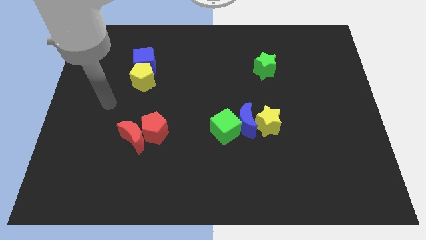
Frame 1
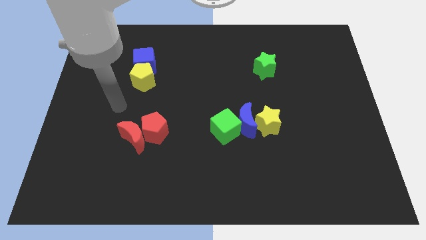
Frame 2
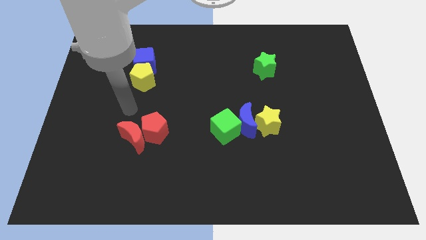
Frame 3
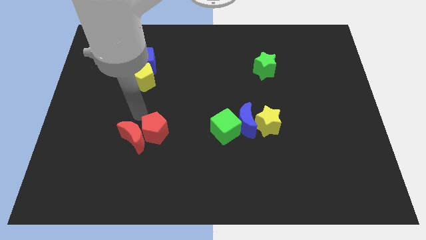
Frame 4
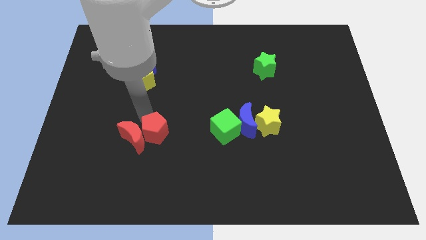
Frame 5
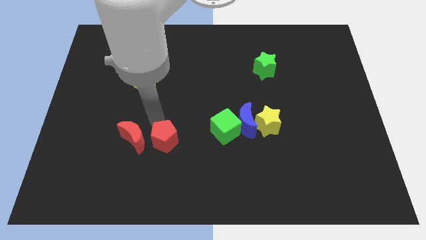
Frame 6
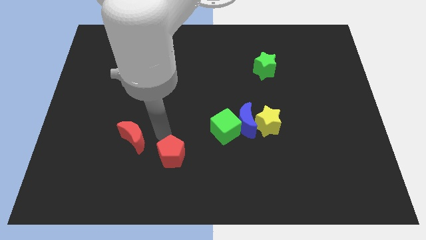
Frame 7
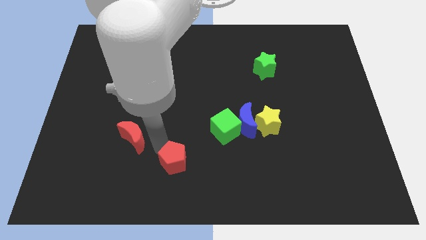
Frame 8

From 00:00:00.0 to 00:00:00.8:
pull the red moon apart from the red pentagon

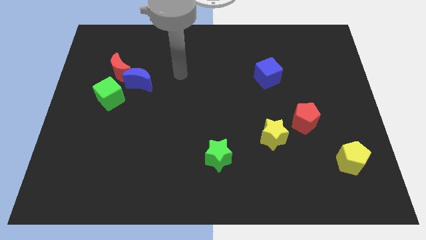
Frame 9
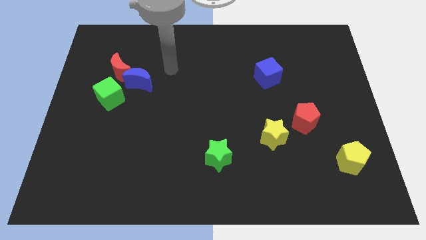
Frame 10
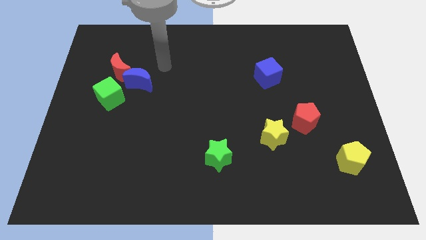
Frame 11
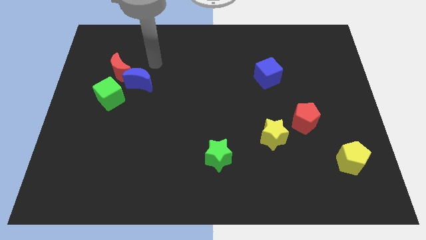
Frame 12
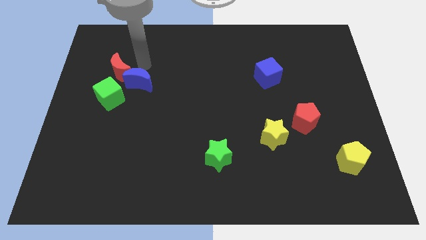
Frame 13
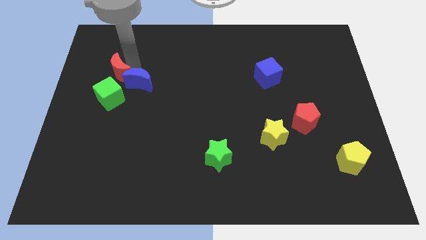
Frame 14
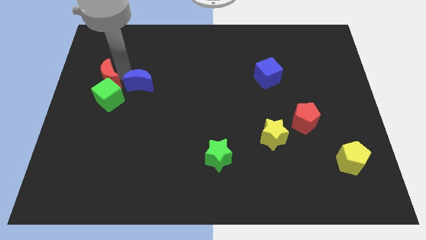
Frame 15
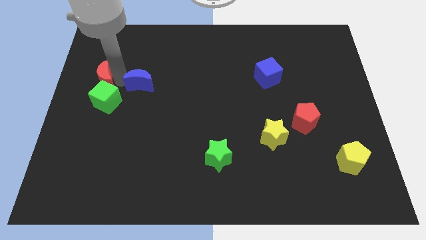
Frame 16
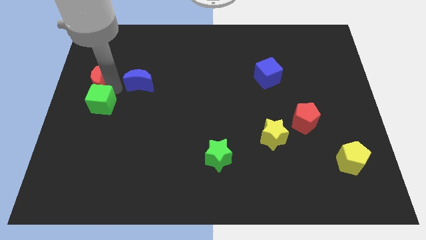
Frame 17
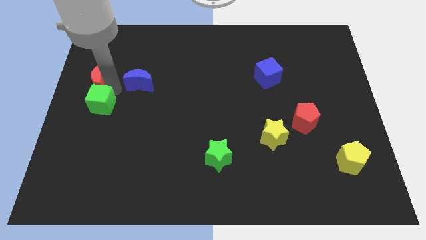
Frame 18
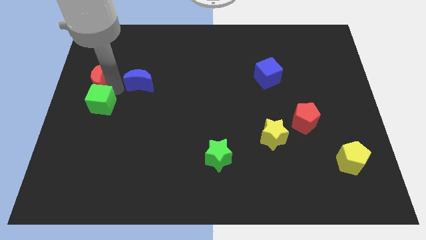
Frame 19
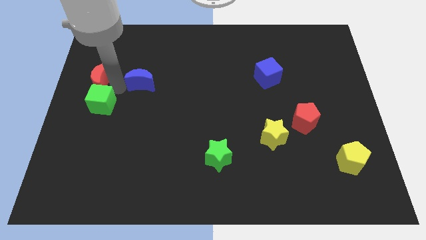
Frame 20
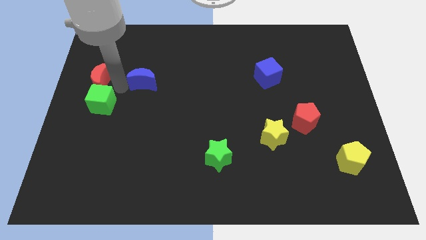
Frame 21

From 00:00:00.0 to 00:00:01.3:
move the blue moon away from the red moon and green cube

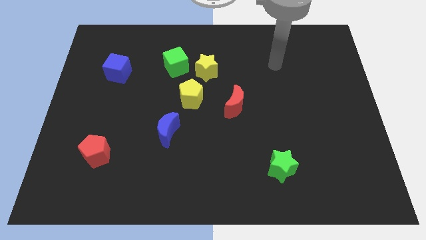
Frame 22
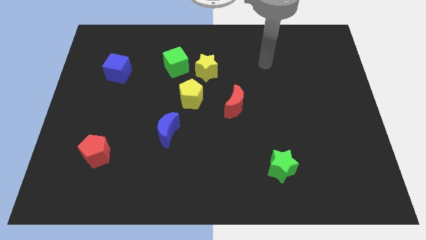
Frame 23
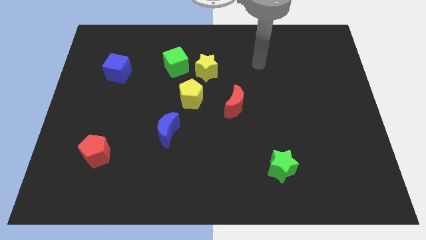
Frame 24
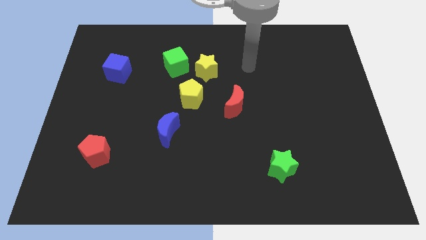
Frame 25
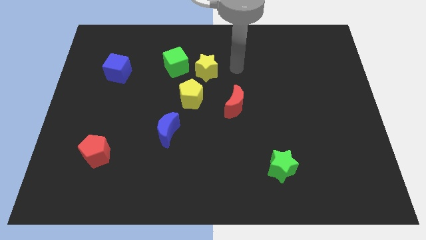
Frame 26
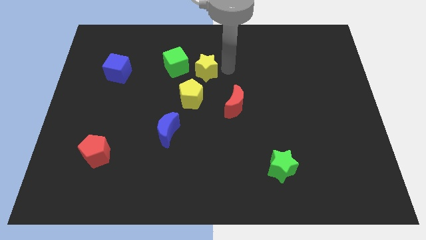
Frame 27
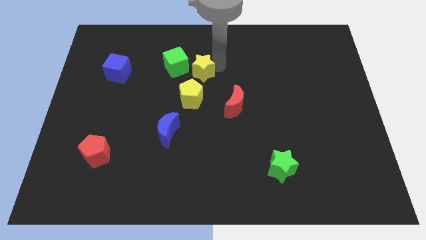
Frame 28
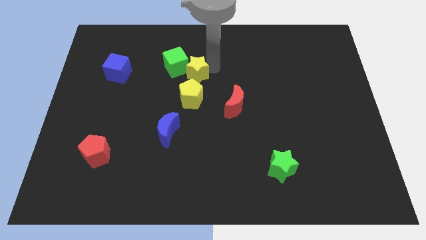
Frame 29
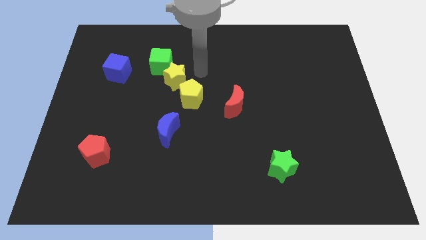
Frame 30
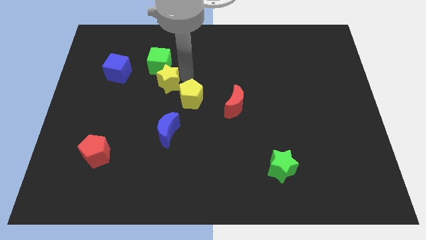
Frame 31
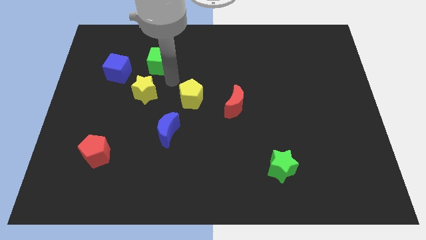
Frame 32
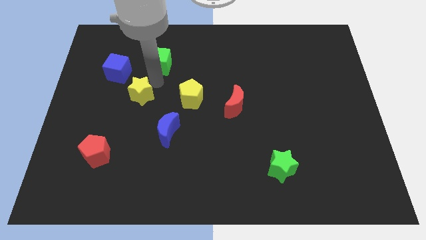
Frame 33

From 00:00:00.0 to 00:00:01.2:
separate the green cube from the yellow star

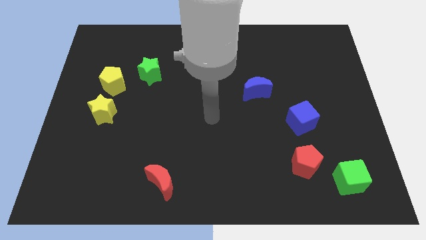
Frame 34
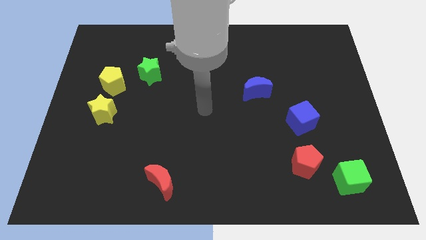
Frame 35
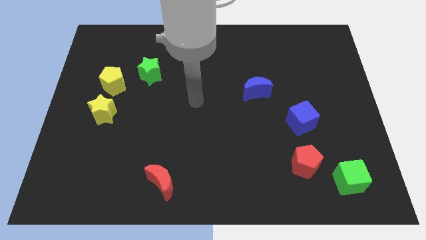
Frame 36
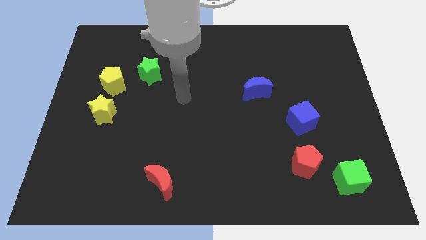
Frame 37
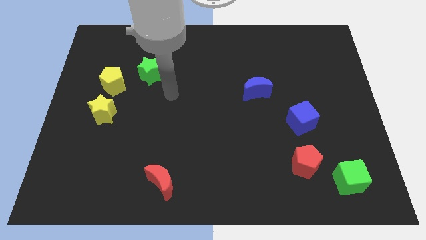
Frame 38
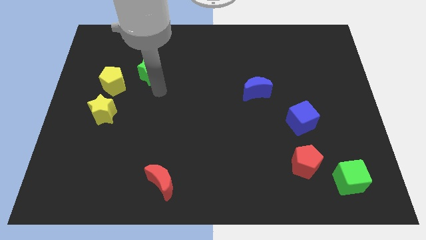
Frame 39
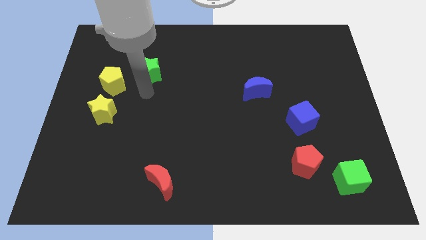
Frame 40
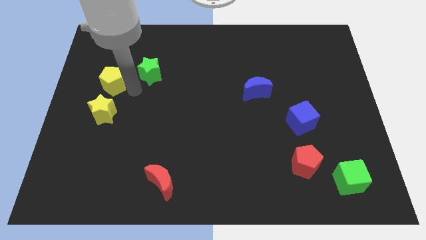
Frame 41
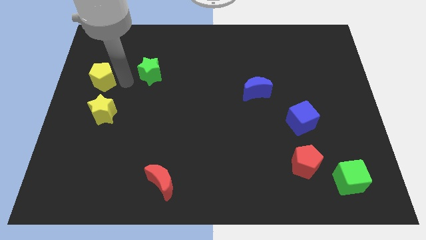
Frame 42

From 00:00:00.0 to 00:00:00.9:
move the green star away from the yellow pentagon

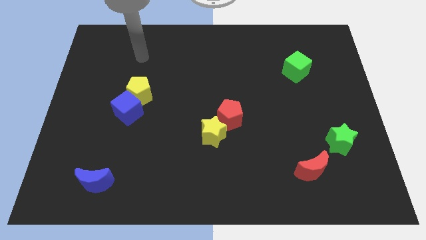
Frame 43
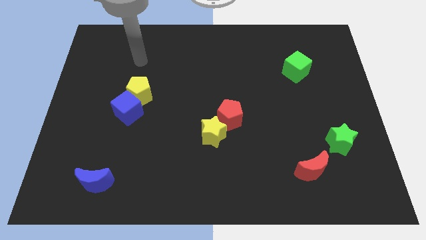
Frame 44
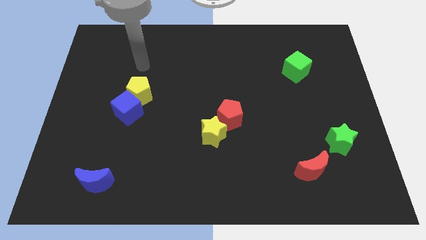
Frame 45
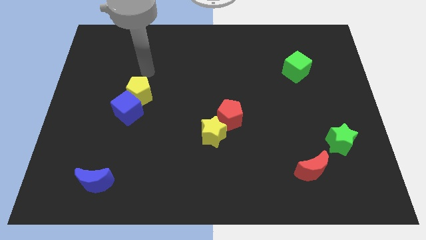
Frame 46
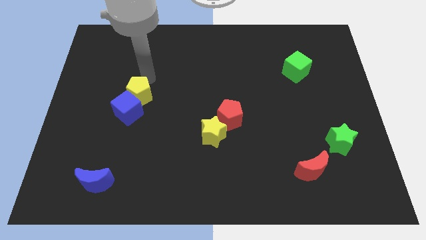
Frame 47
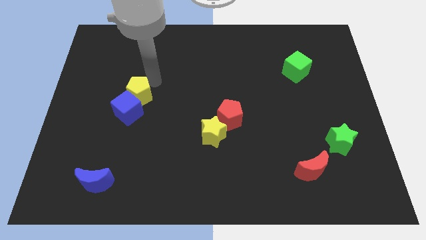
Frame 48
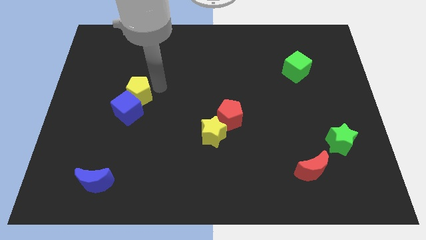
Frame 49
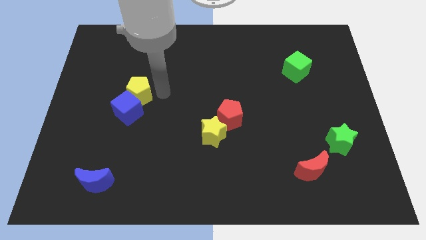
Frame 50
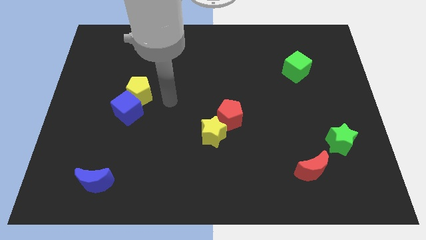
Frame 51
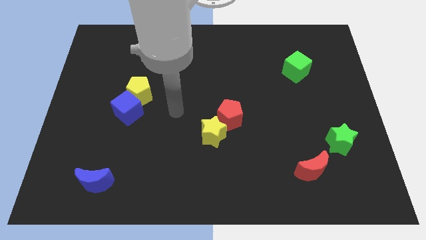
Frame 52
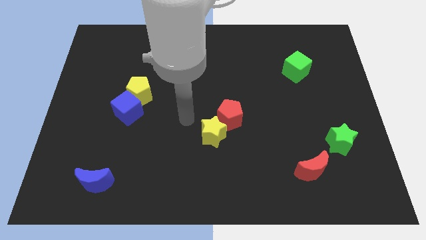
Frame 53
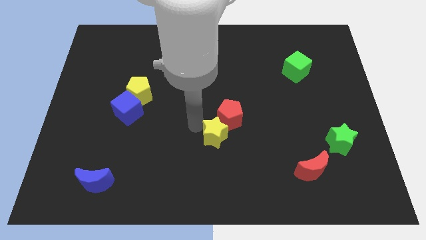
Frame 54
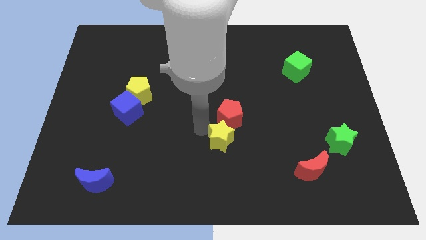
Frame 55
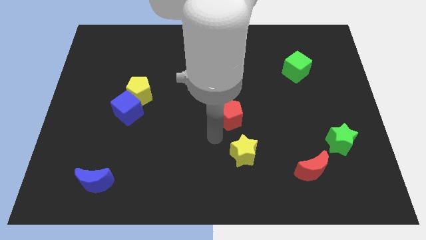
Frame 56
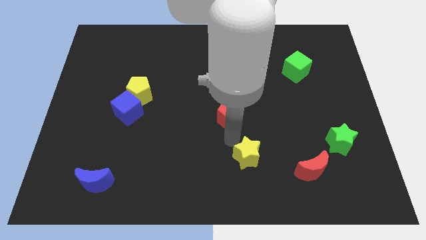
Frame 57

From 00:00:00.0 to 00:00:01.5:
move the red pentagon away from the yellow star

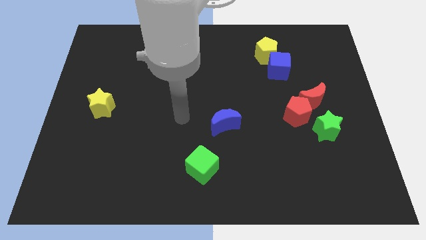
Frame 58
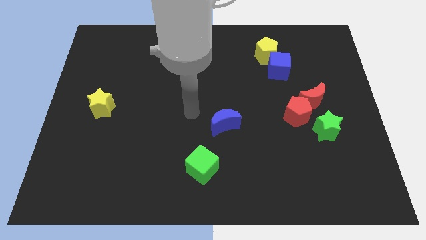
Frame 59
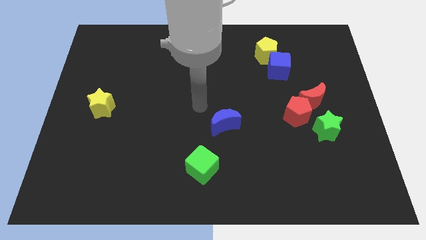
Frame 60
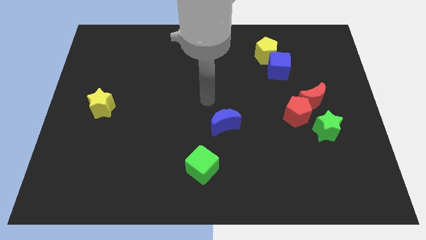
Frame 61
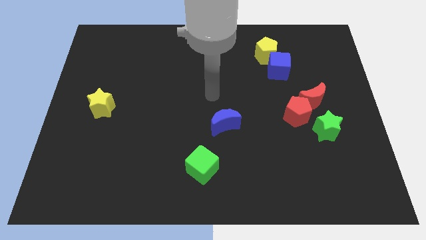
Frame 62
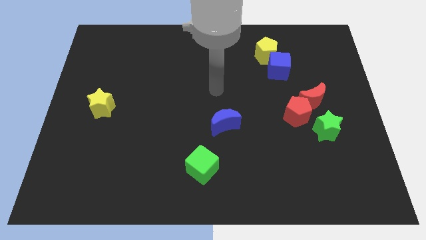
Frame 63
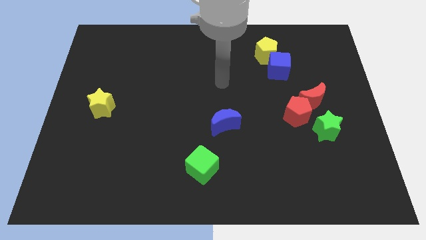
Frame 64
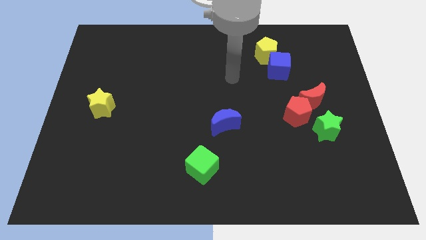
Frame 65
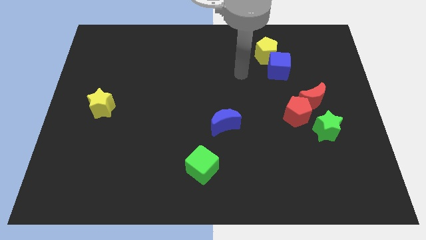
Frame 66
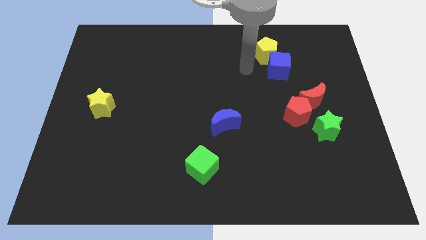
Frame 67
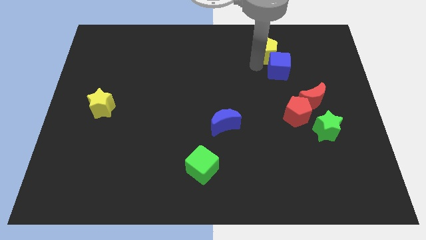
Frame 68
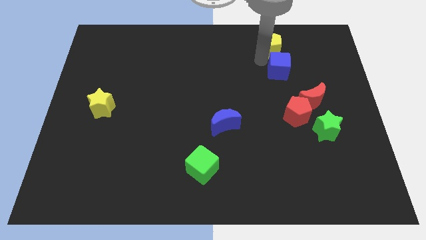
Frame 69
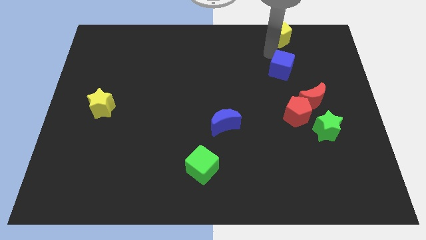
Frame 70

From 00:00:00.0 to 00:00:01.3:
separate the blue cube from the yellow pentagon

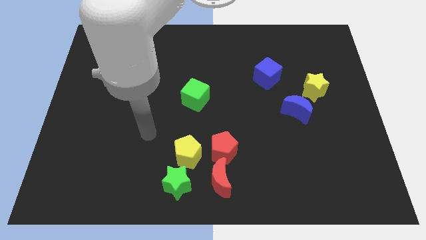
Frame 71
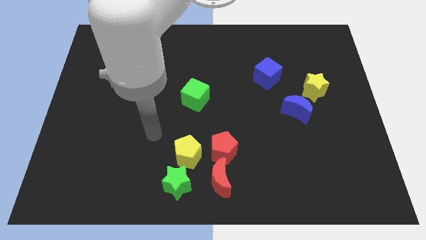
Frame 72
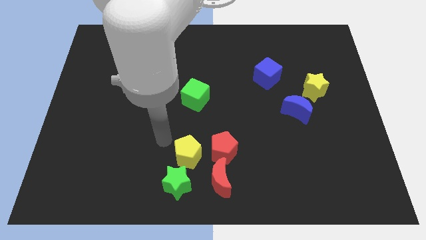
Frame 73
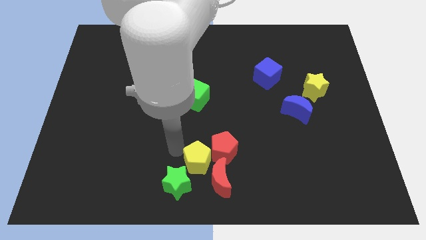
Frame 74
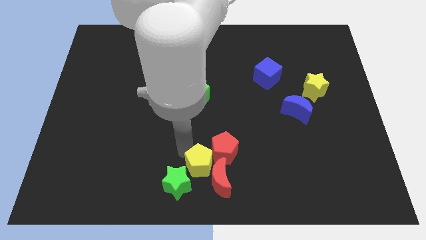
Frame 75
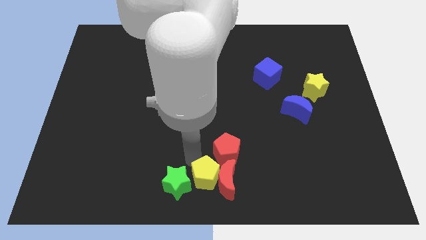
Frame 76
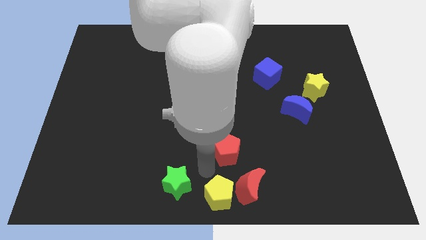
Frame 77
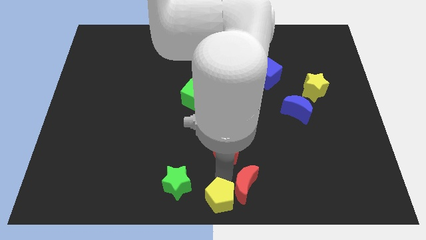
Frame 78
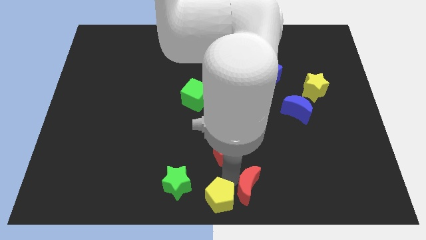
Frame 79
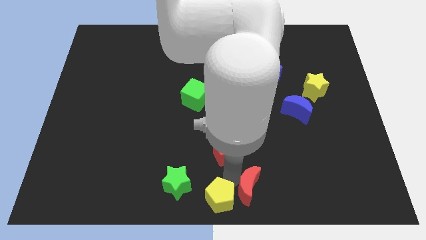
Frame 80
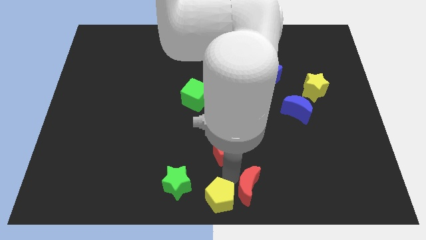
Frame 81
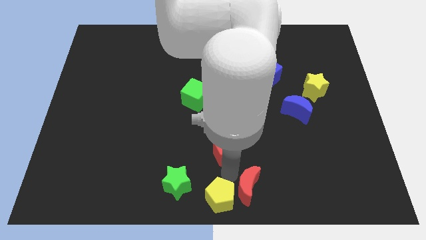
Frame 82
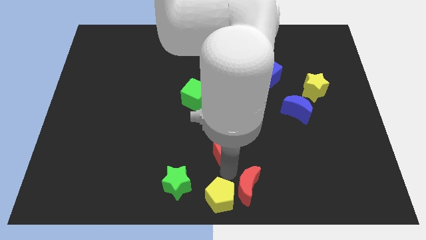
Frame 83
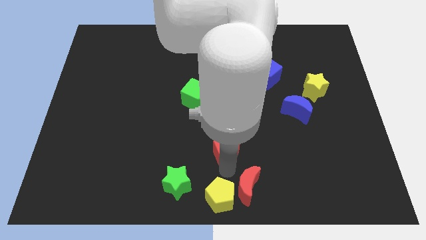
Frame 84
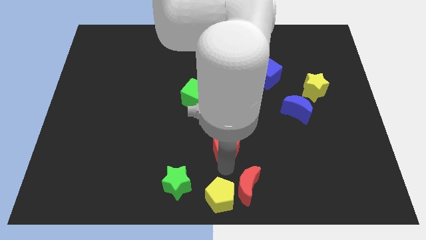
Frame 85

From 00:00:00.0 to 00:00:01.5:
pull the red pentagon apart from the red moon and yellow pentagon

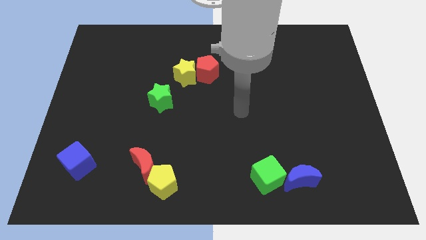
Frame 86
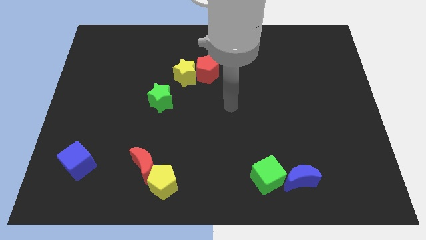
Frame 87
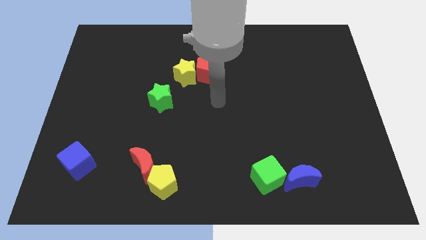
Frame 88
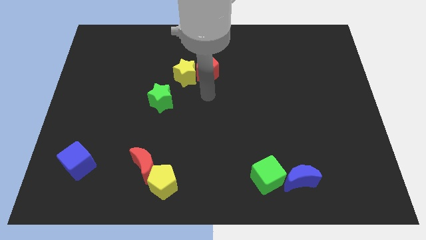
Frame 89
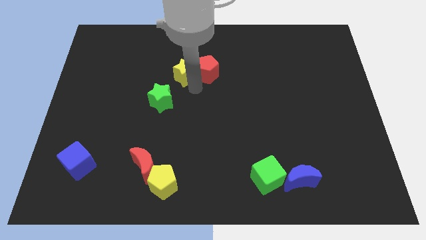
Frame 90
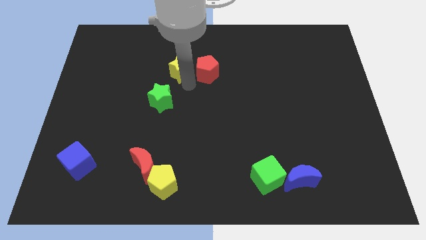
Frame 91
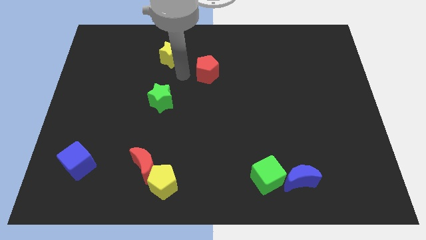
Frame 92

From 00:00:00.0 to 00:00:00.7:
separate the red pentagon from the yellow star
